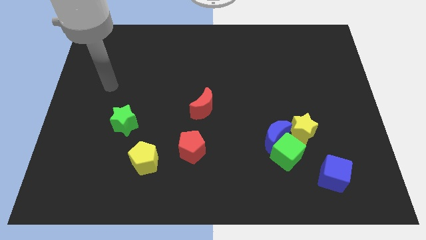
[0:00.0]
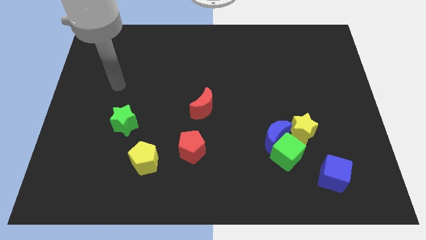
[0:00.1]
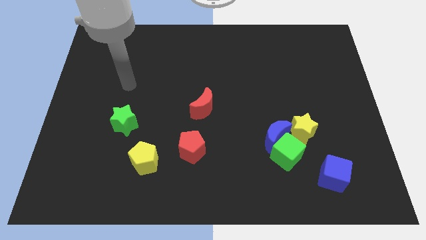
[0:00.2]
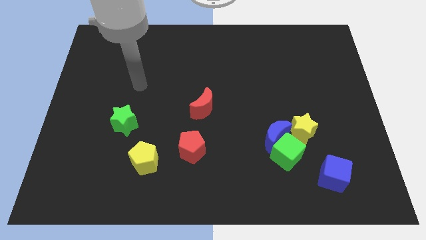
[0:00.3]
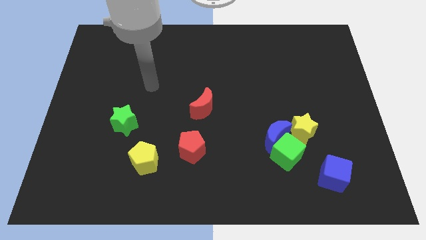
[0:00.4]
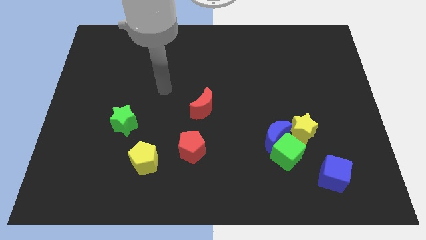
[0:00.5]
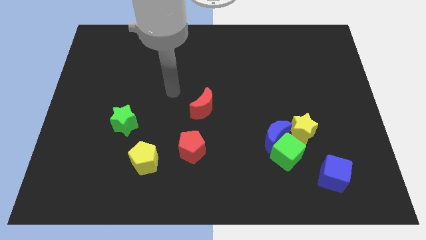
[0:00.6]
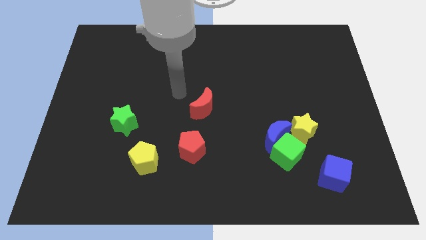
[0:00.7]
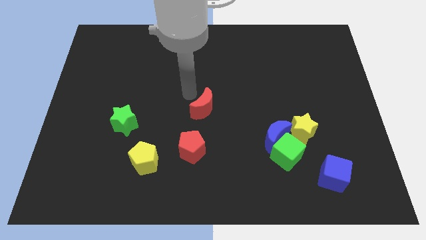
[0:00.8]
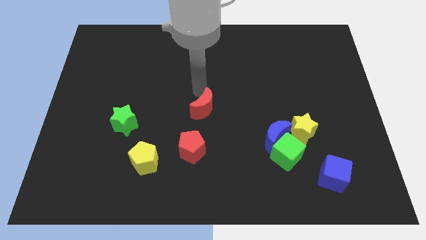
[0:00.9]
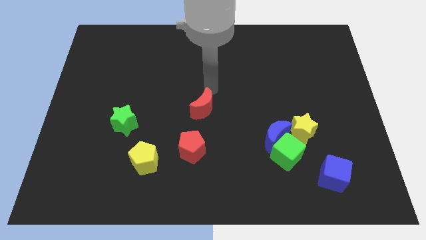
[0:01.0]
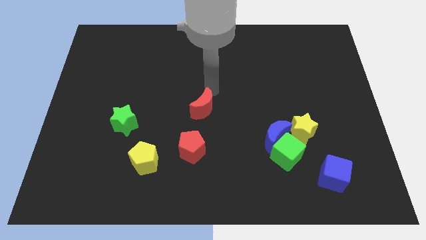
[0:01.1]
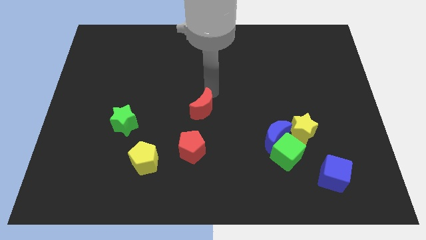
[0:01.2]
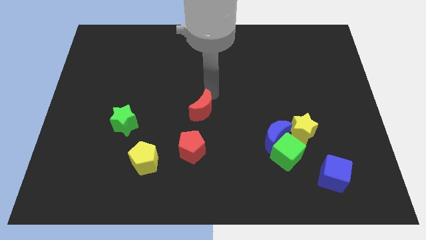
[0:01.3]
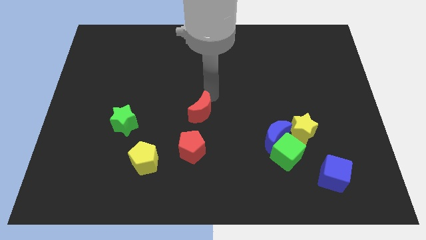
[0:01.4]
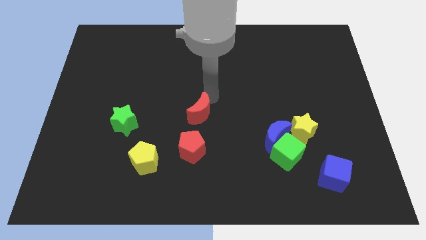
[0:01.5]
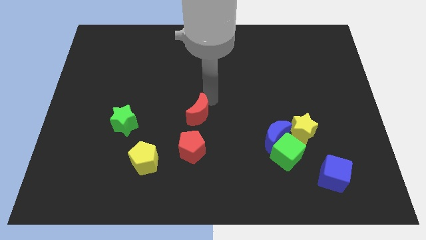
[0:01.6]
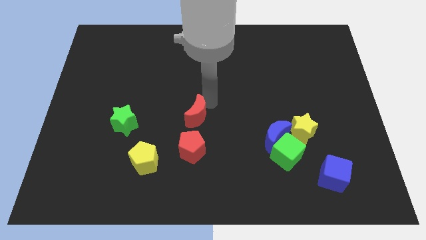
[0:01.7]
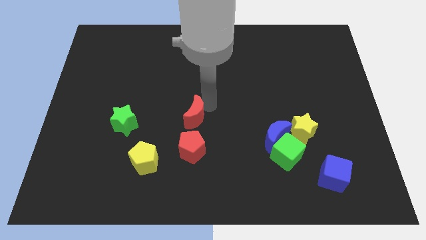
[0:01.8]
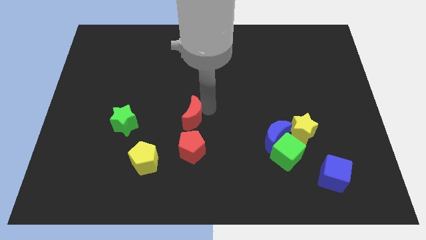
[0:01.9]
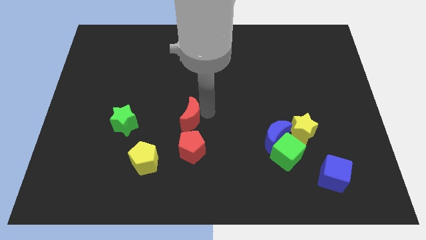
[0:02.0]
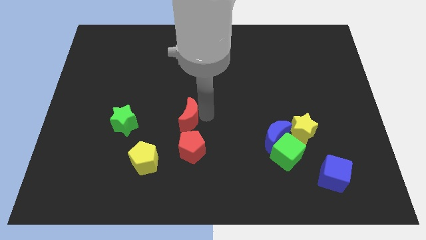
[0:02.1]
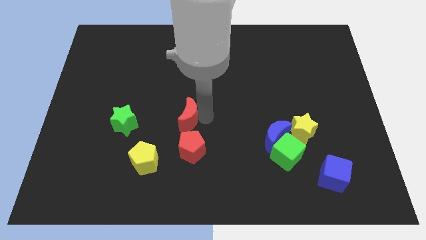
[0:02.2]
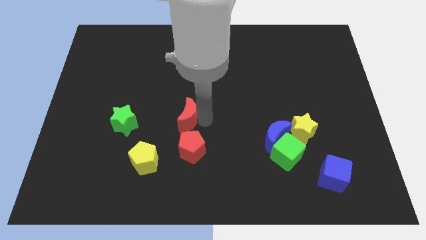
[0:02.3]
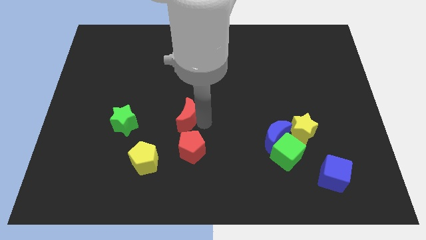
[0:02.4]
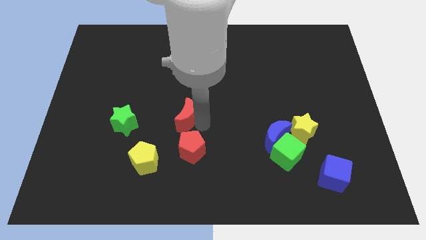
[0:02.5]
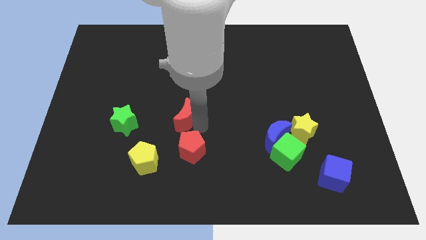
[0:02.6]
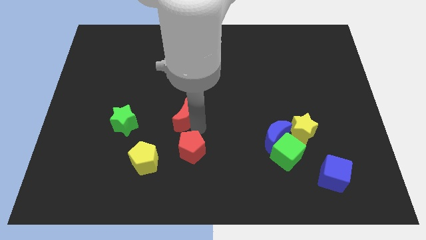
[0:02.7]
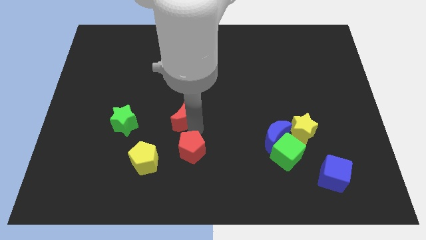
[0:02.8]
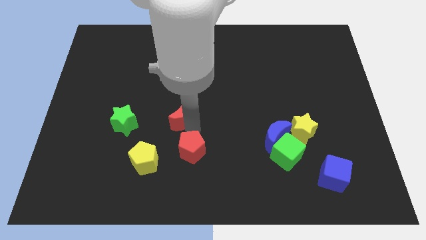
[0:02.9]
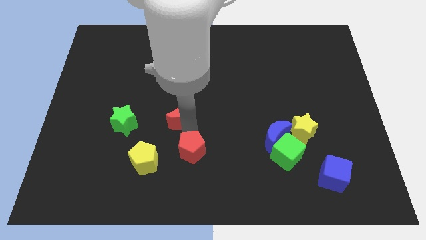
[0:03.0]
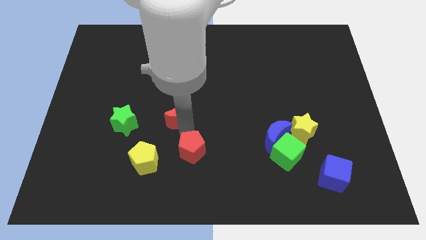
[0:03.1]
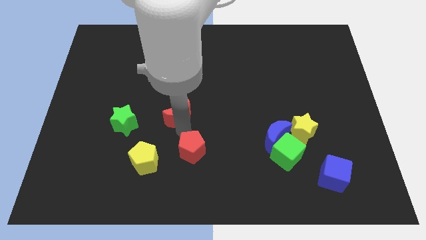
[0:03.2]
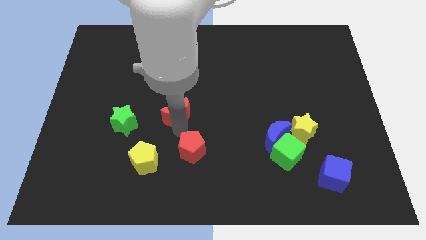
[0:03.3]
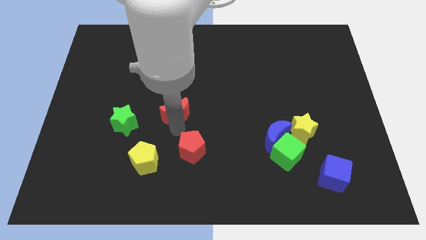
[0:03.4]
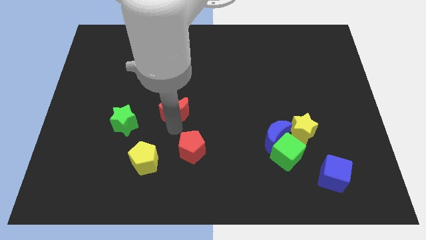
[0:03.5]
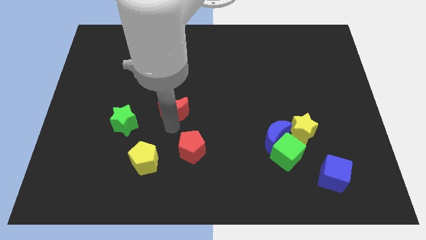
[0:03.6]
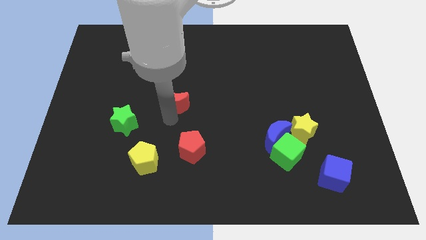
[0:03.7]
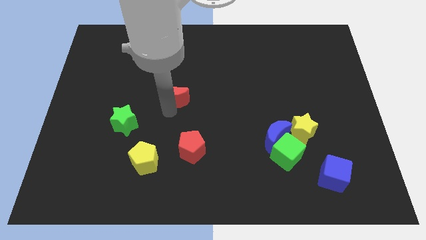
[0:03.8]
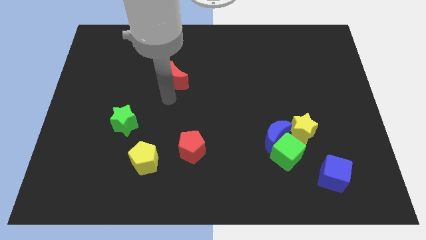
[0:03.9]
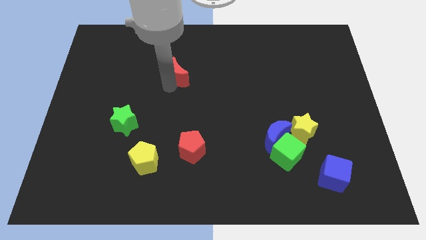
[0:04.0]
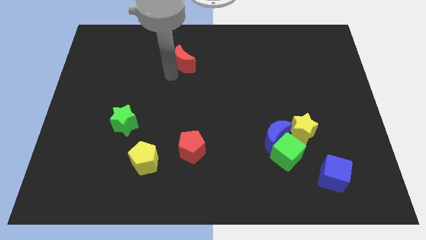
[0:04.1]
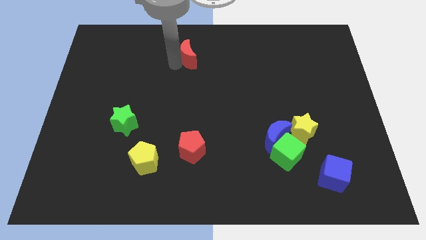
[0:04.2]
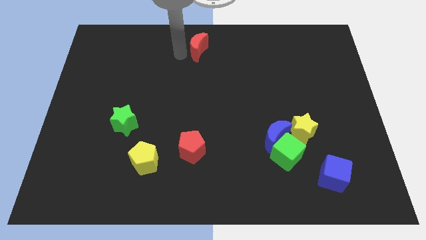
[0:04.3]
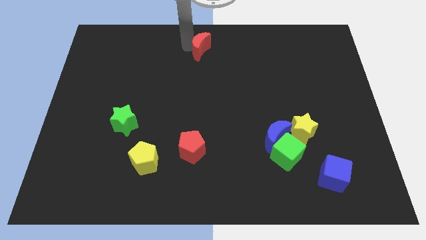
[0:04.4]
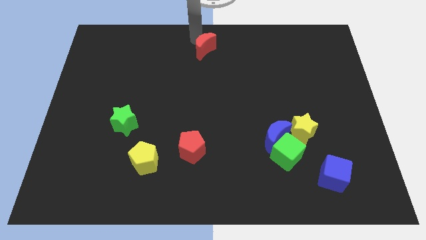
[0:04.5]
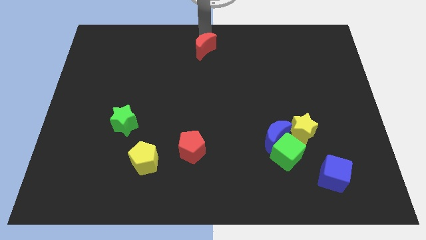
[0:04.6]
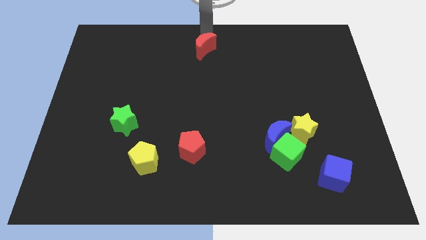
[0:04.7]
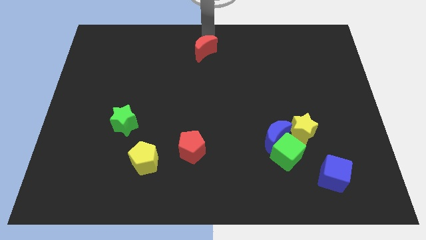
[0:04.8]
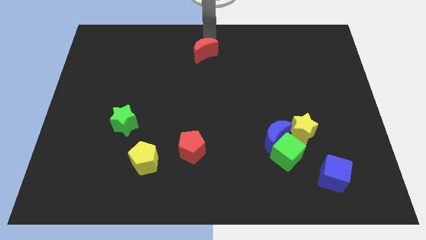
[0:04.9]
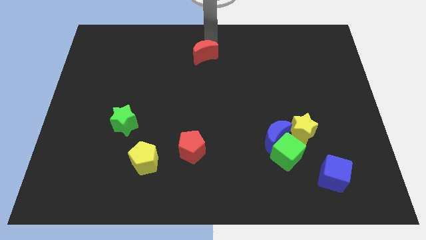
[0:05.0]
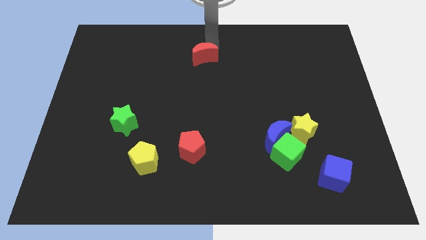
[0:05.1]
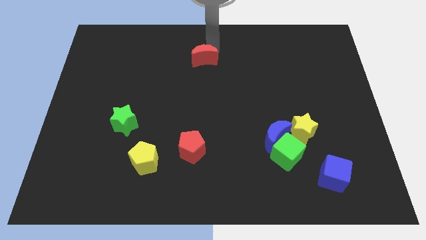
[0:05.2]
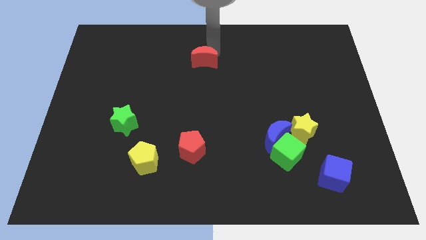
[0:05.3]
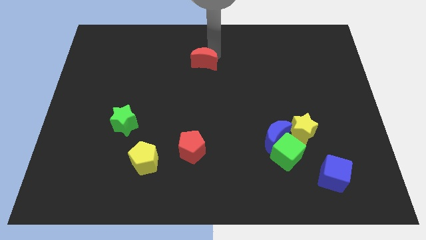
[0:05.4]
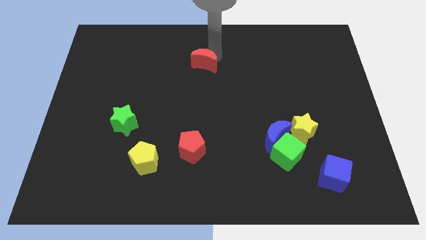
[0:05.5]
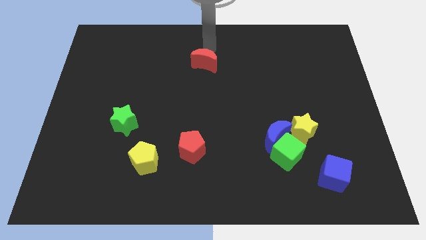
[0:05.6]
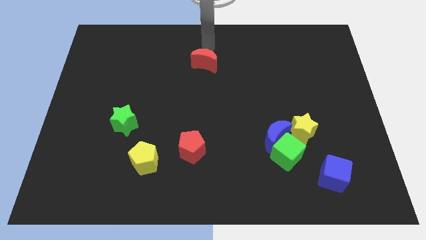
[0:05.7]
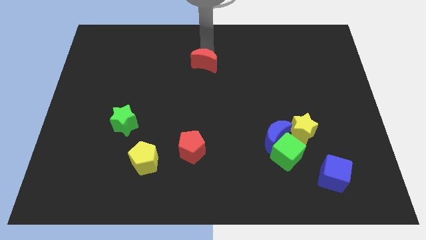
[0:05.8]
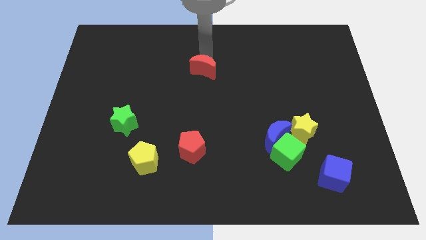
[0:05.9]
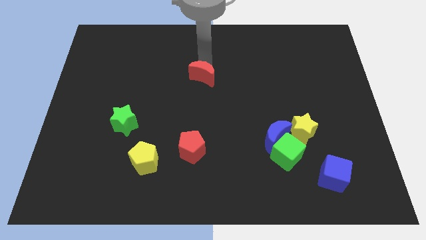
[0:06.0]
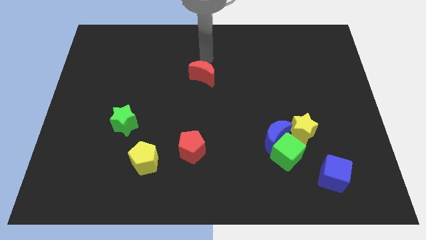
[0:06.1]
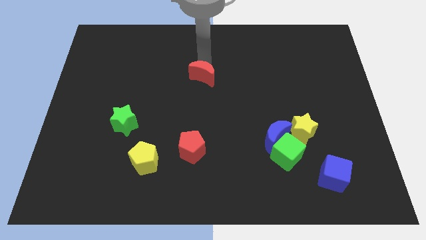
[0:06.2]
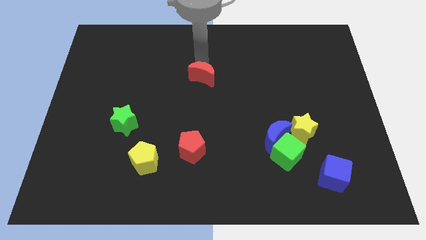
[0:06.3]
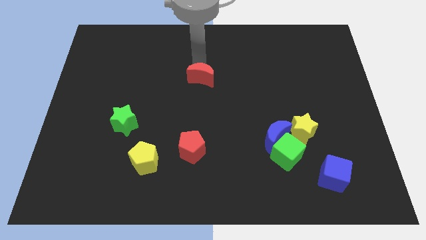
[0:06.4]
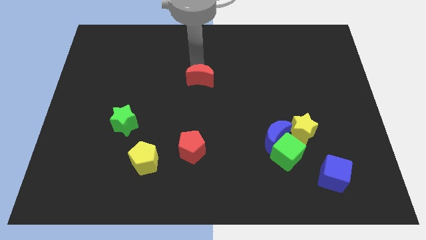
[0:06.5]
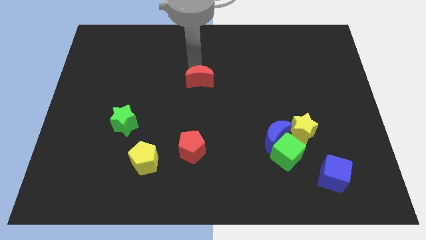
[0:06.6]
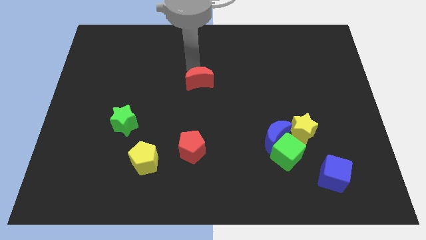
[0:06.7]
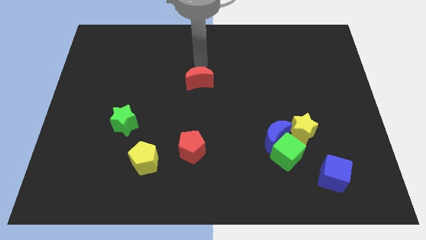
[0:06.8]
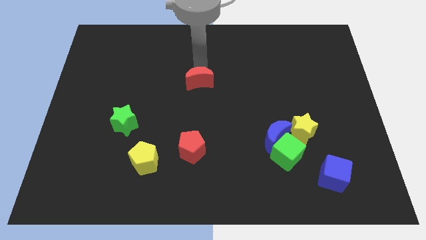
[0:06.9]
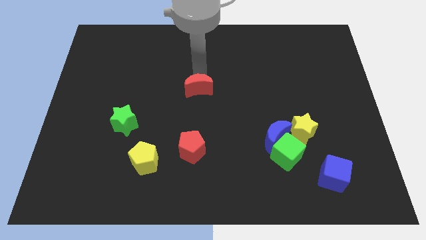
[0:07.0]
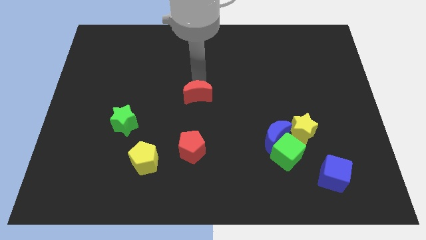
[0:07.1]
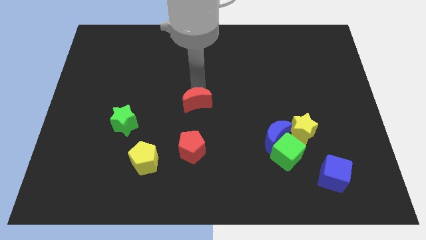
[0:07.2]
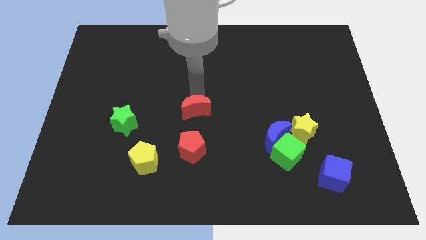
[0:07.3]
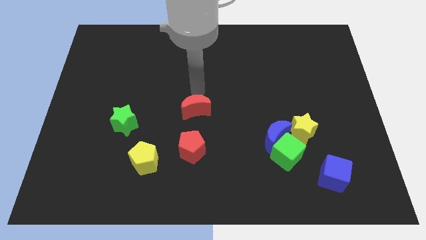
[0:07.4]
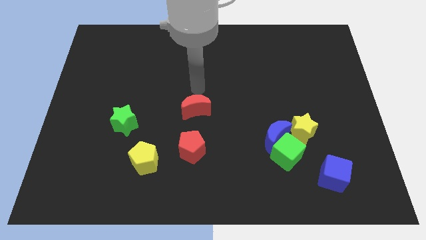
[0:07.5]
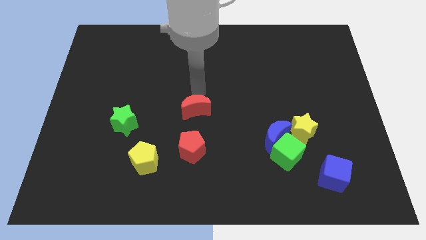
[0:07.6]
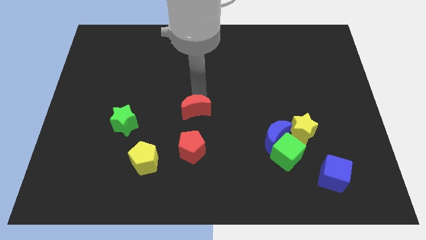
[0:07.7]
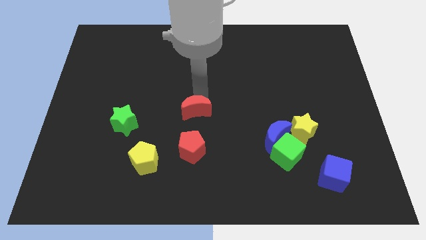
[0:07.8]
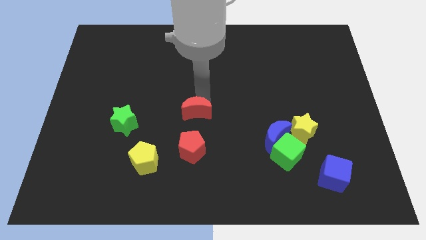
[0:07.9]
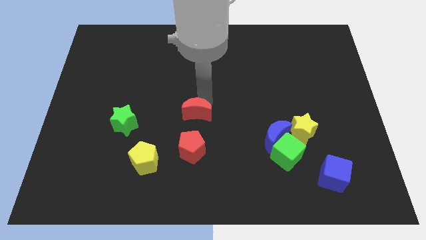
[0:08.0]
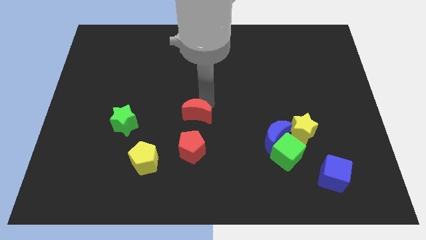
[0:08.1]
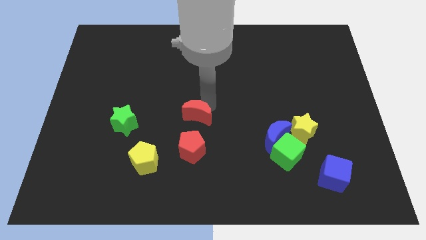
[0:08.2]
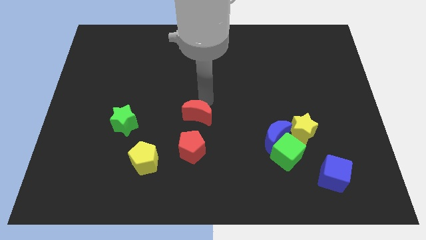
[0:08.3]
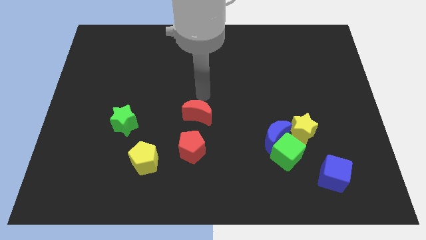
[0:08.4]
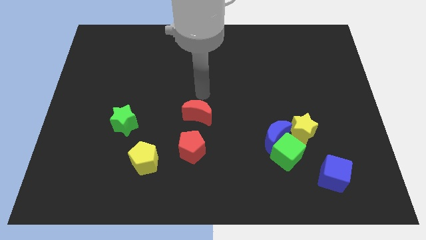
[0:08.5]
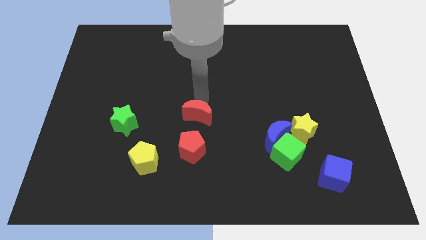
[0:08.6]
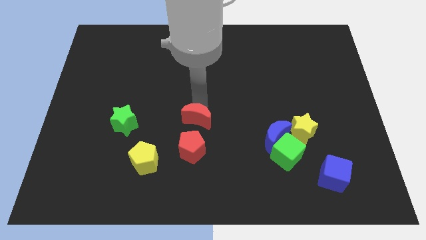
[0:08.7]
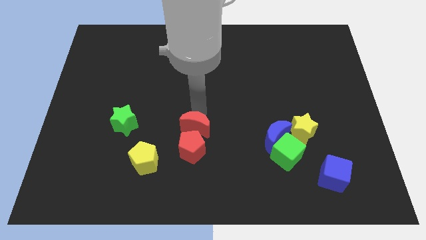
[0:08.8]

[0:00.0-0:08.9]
move the red moon close to the red pentagon
